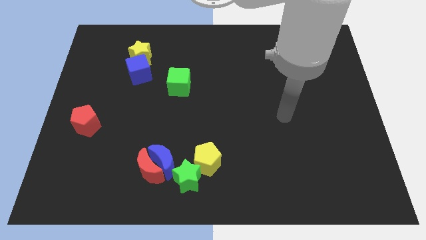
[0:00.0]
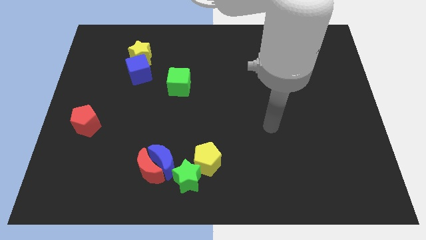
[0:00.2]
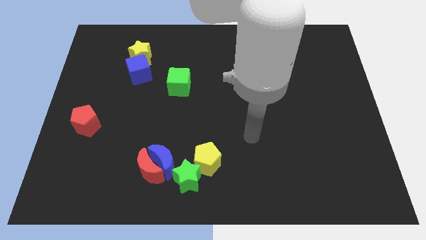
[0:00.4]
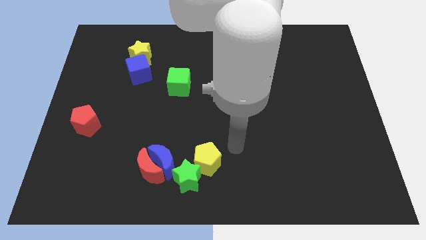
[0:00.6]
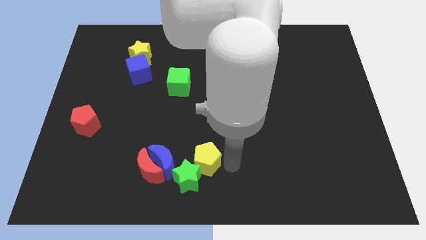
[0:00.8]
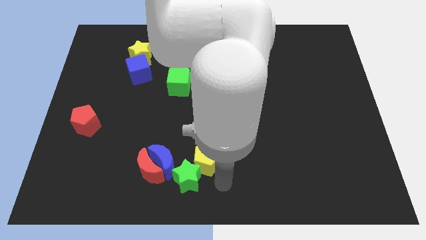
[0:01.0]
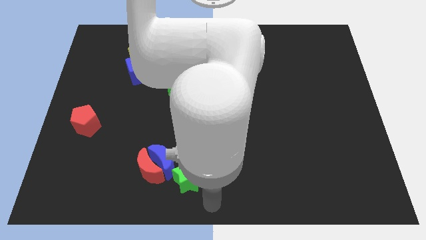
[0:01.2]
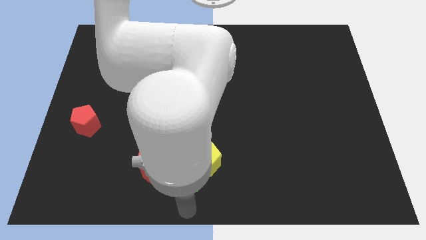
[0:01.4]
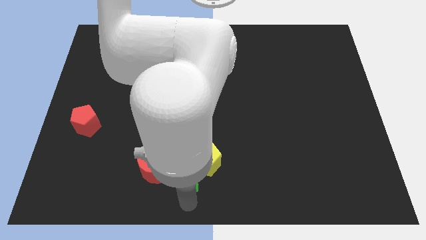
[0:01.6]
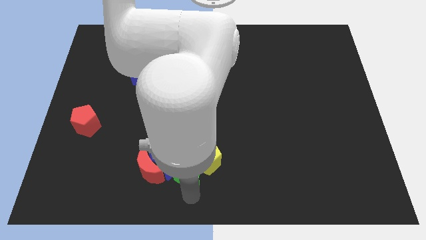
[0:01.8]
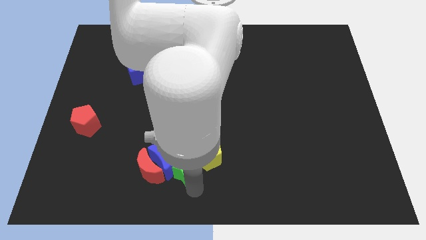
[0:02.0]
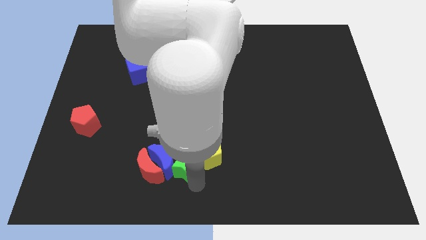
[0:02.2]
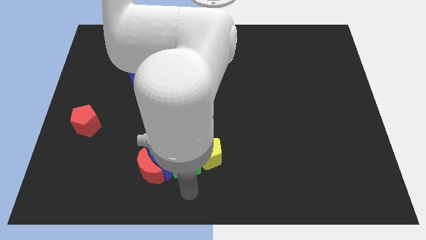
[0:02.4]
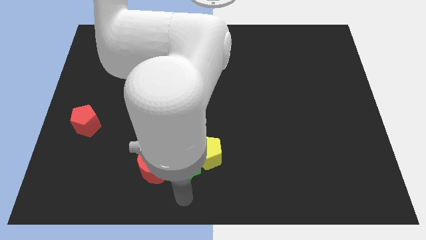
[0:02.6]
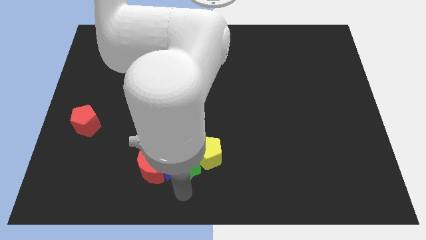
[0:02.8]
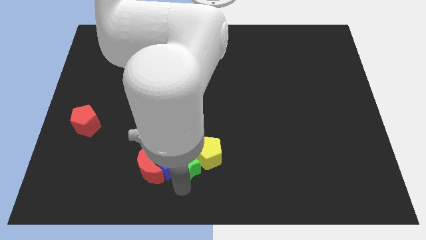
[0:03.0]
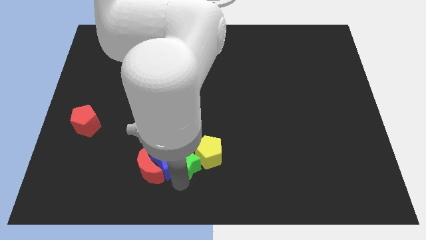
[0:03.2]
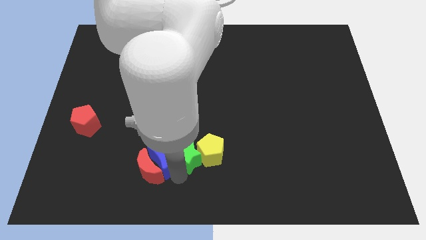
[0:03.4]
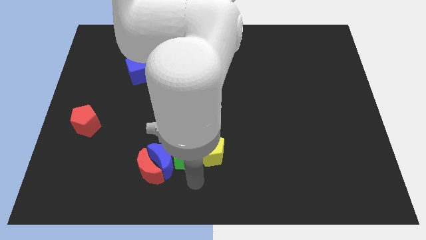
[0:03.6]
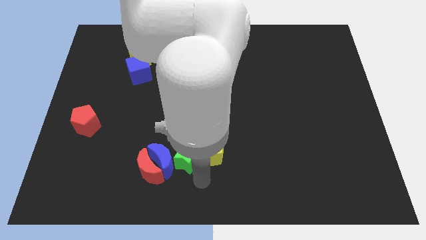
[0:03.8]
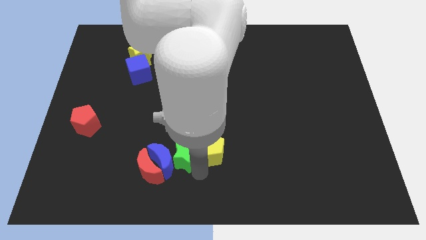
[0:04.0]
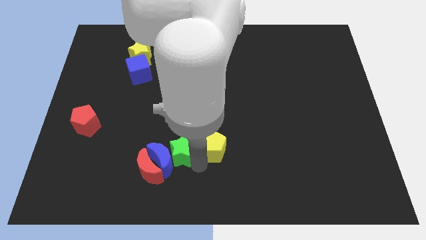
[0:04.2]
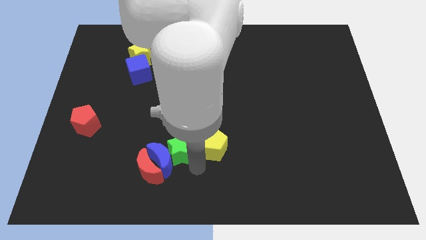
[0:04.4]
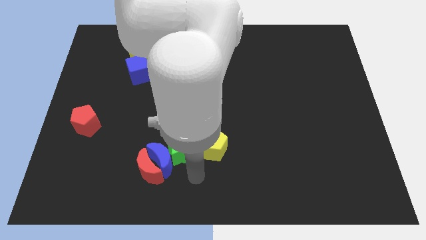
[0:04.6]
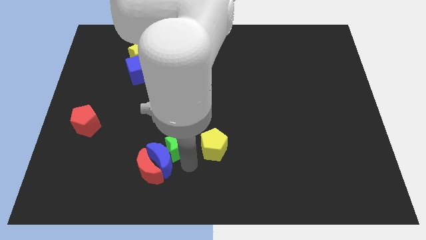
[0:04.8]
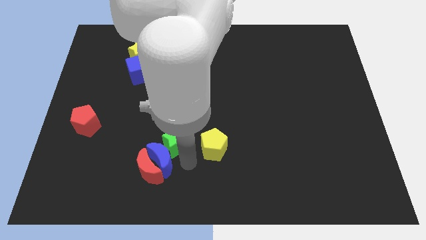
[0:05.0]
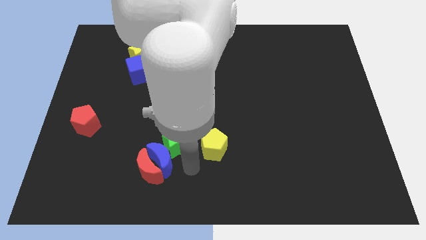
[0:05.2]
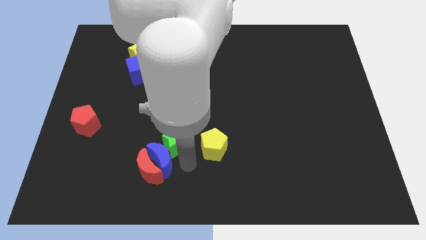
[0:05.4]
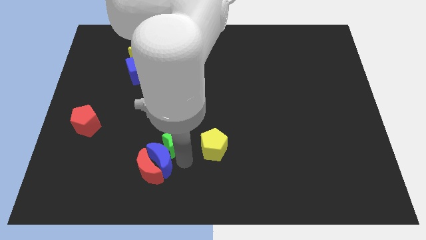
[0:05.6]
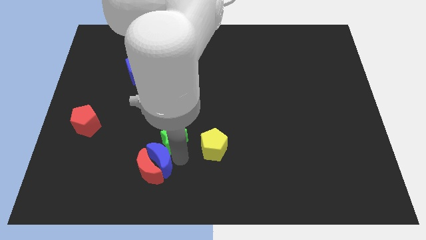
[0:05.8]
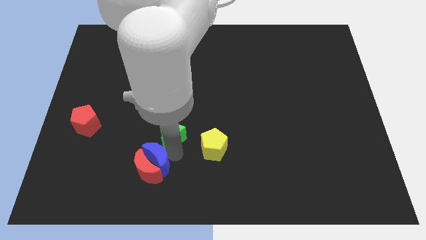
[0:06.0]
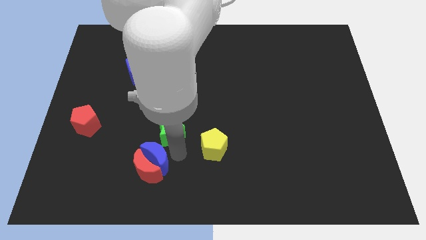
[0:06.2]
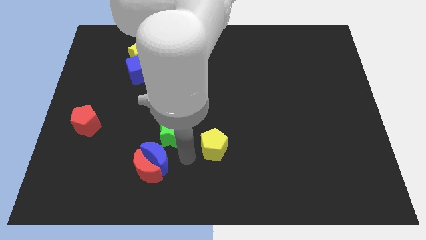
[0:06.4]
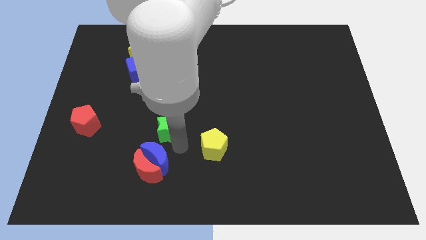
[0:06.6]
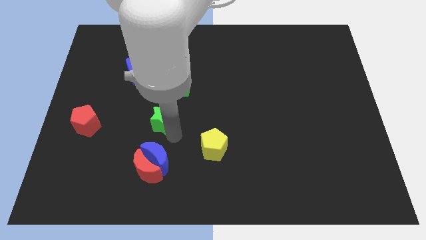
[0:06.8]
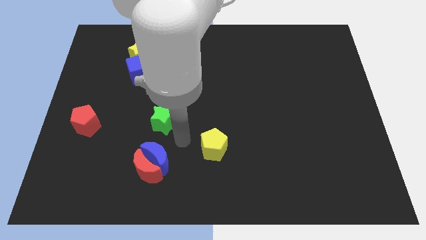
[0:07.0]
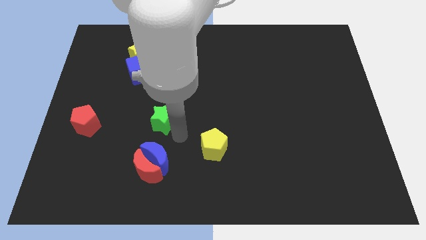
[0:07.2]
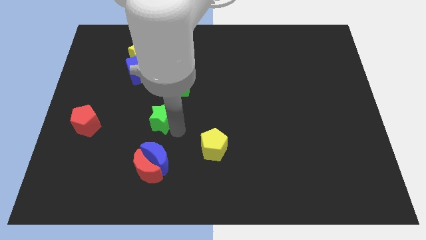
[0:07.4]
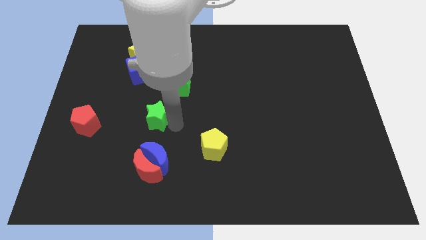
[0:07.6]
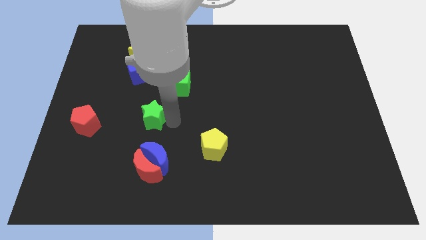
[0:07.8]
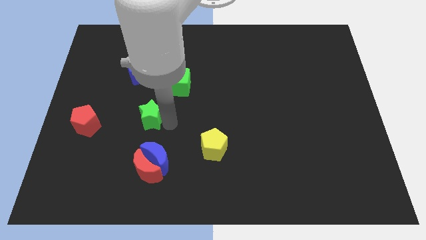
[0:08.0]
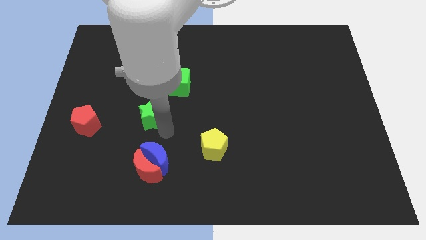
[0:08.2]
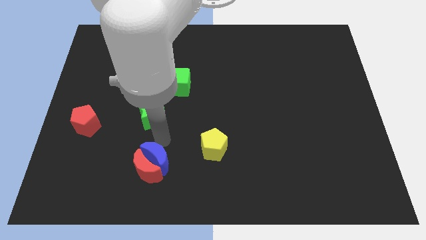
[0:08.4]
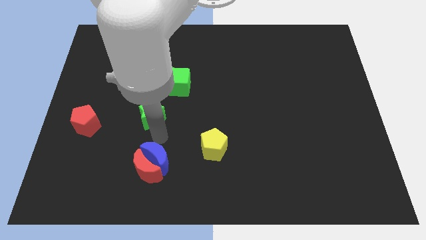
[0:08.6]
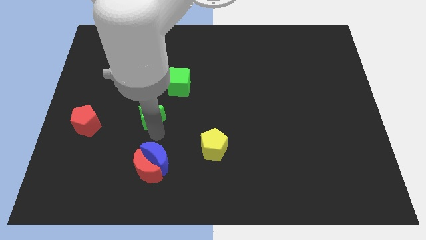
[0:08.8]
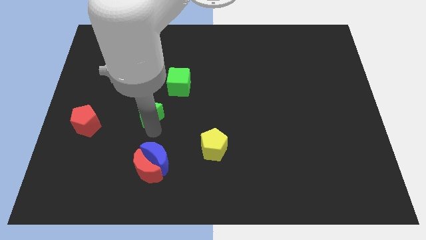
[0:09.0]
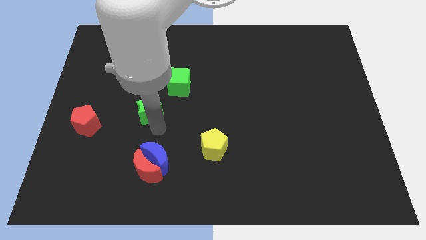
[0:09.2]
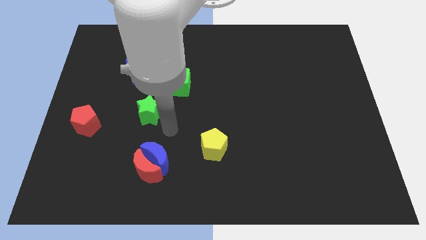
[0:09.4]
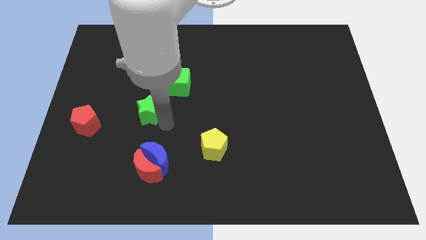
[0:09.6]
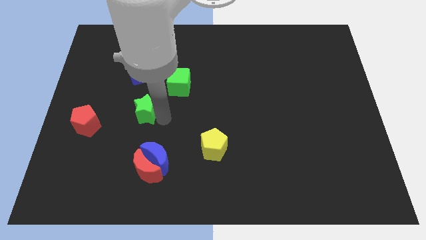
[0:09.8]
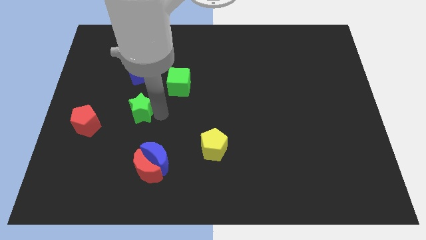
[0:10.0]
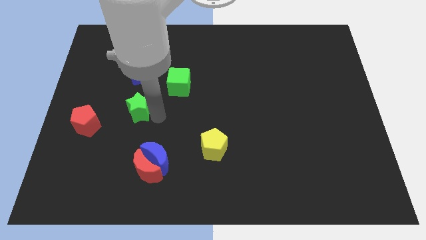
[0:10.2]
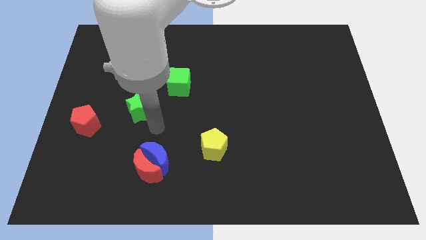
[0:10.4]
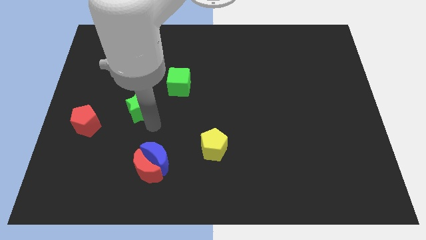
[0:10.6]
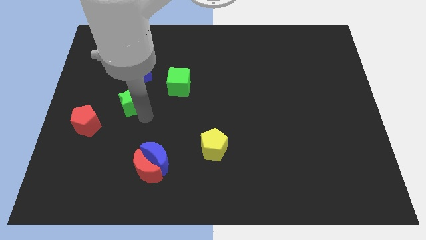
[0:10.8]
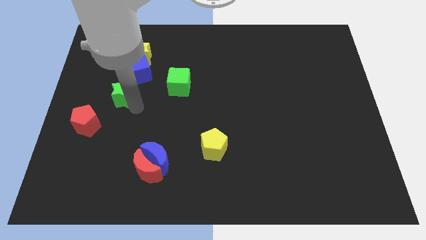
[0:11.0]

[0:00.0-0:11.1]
slide the green star to the bottom left side of the blue cube

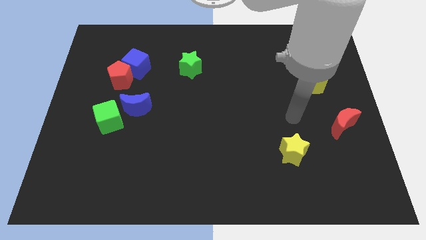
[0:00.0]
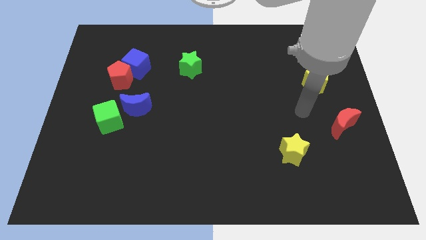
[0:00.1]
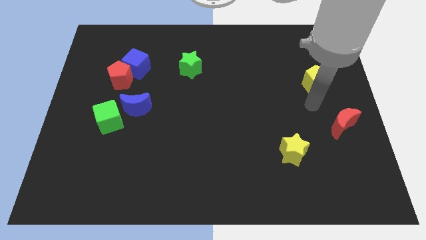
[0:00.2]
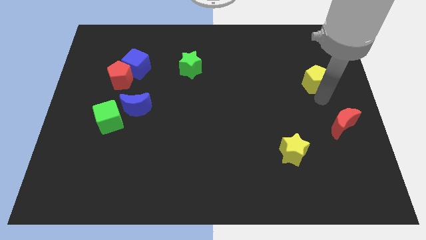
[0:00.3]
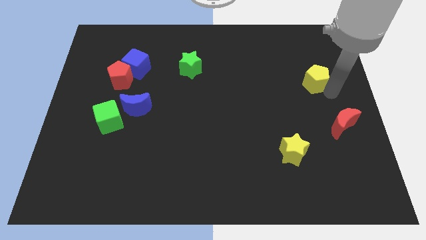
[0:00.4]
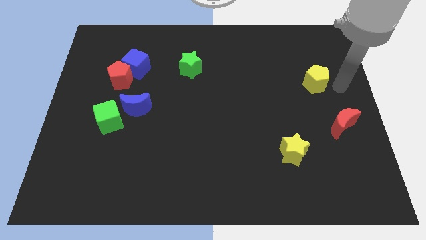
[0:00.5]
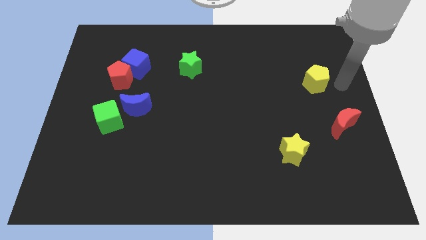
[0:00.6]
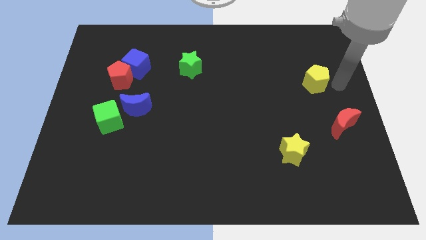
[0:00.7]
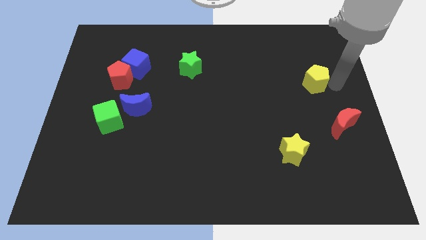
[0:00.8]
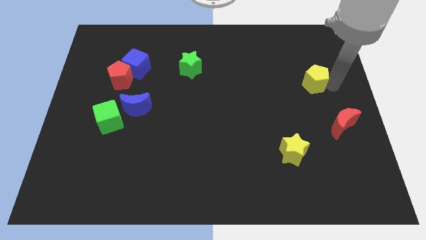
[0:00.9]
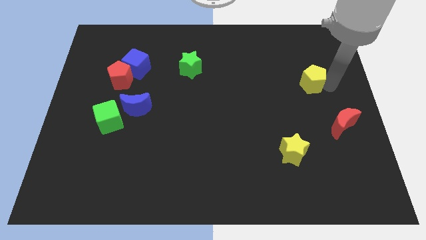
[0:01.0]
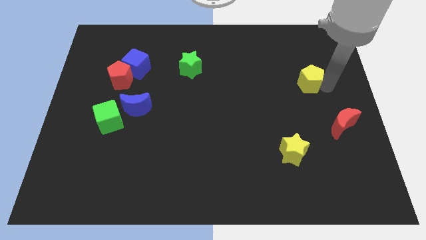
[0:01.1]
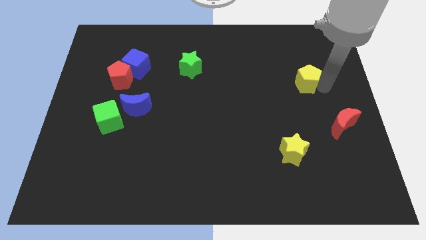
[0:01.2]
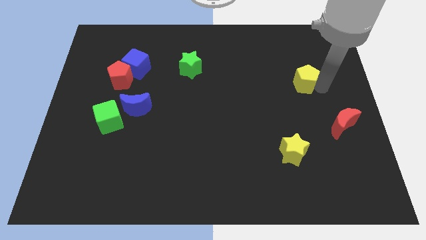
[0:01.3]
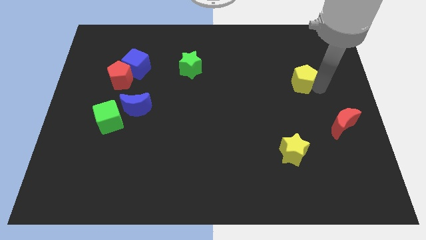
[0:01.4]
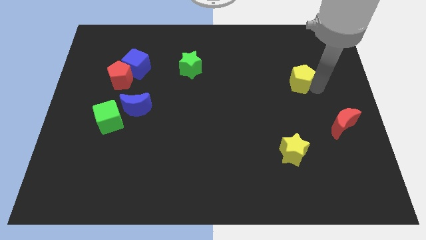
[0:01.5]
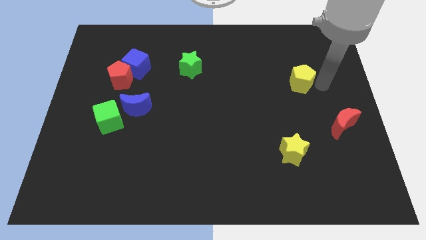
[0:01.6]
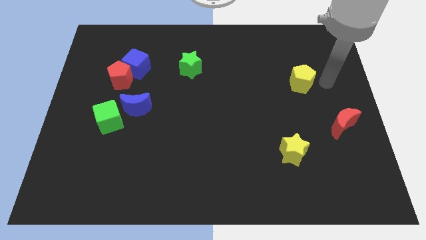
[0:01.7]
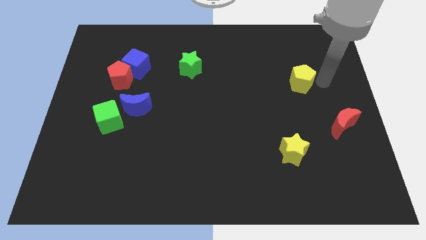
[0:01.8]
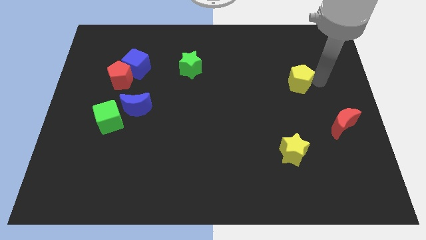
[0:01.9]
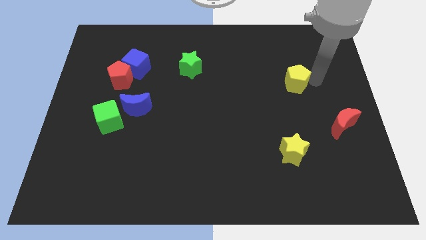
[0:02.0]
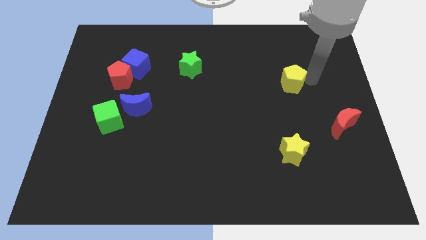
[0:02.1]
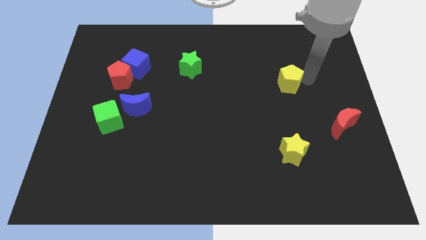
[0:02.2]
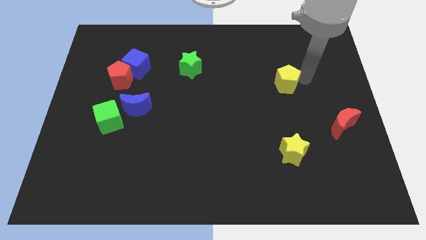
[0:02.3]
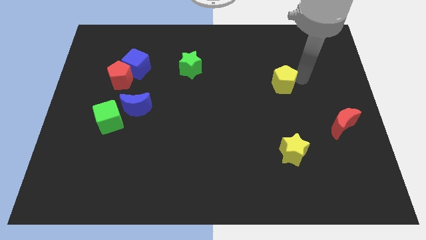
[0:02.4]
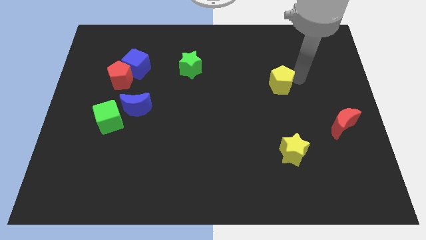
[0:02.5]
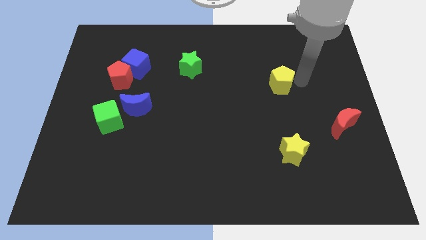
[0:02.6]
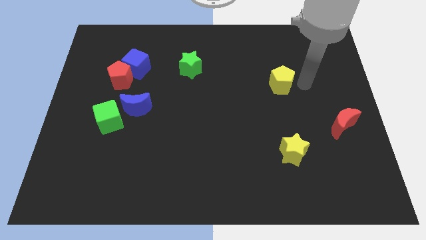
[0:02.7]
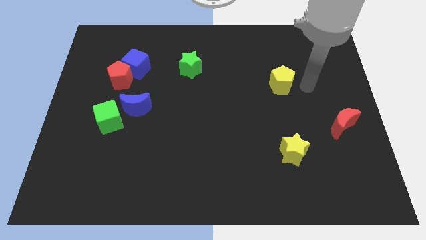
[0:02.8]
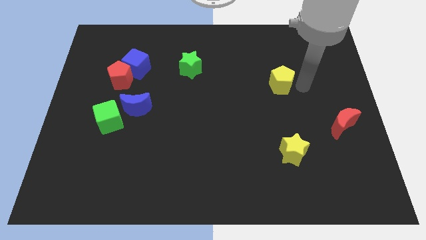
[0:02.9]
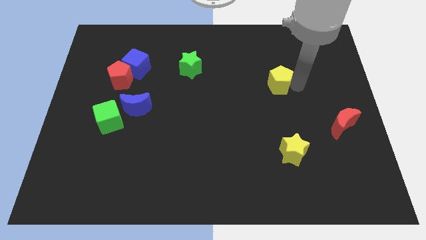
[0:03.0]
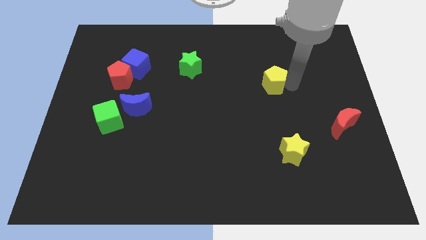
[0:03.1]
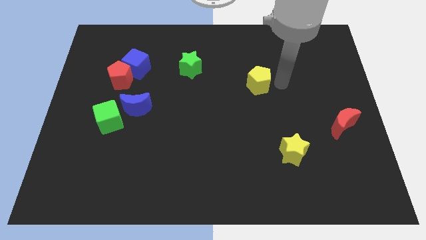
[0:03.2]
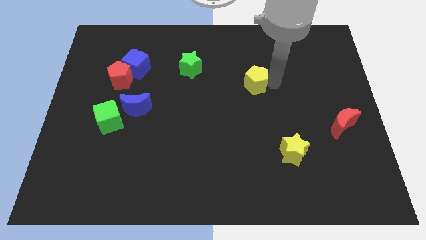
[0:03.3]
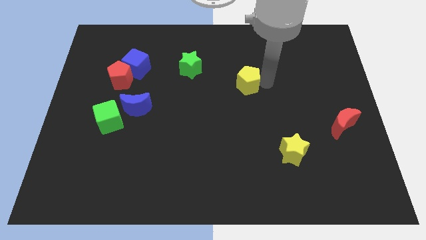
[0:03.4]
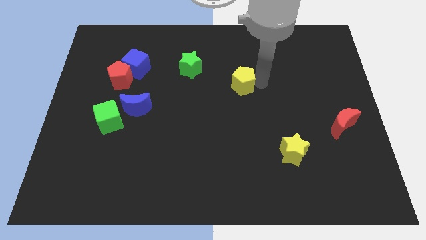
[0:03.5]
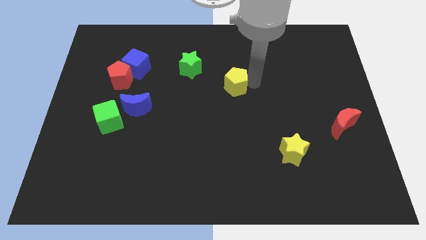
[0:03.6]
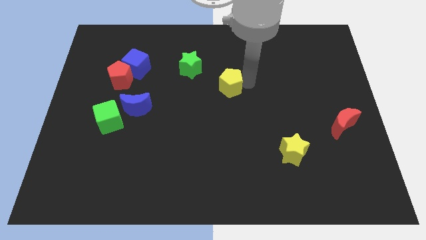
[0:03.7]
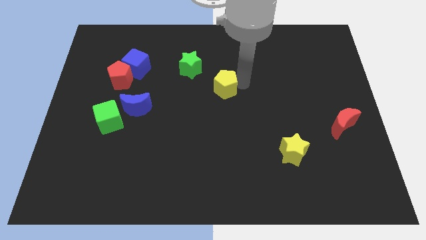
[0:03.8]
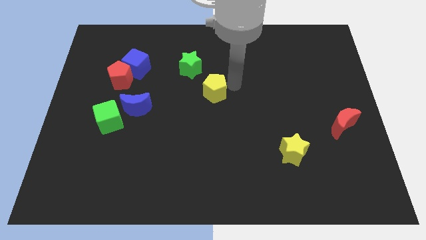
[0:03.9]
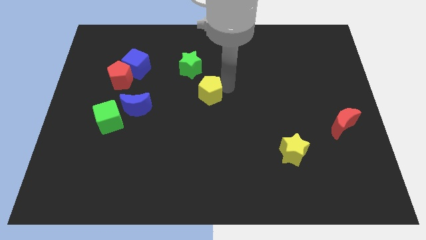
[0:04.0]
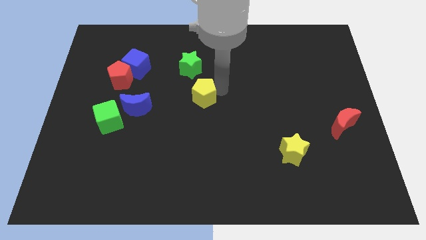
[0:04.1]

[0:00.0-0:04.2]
slide the yellow pentagon below the green star
